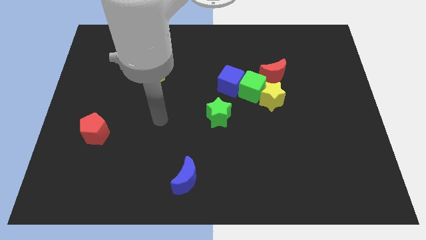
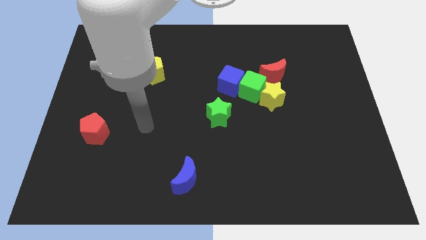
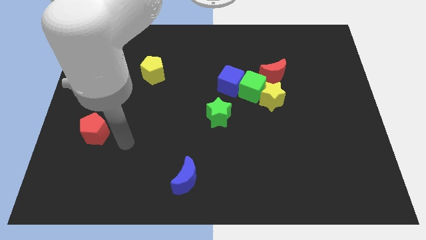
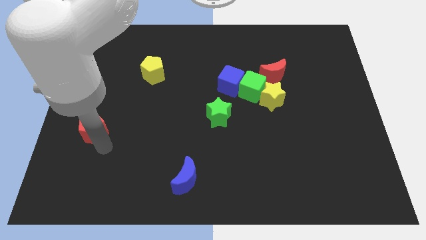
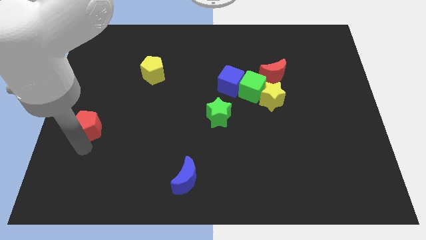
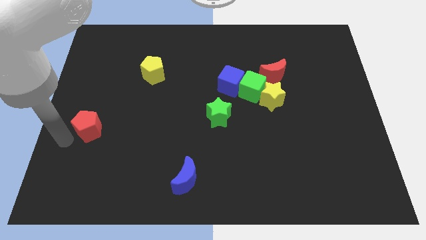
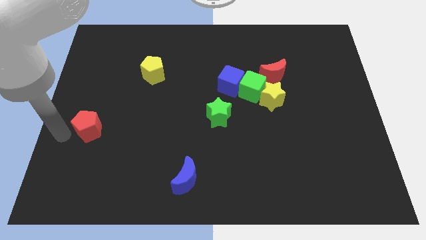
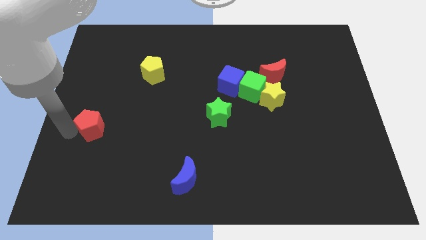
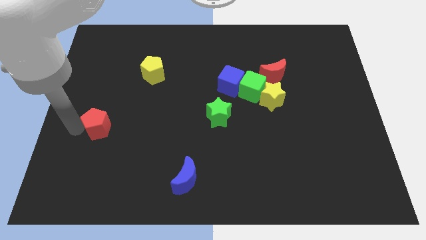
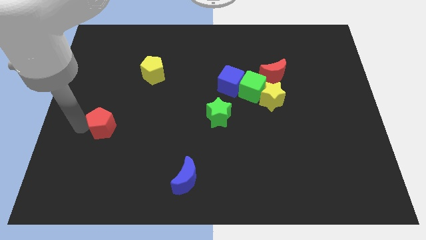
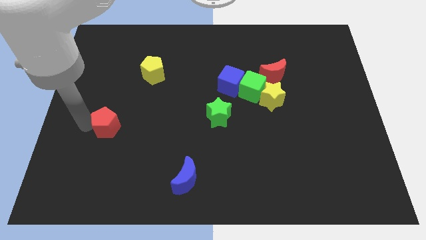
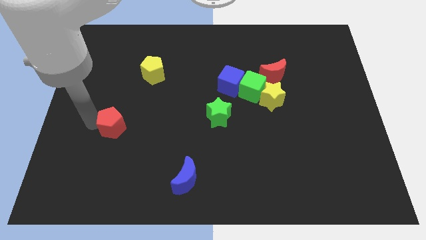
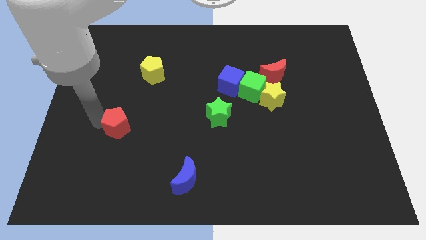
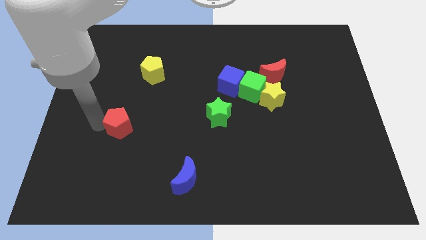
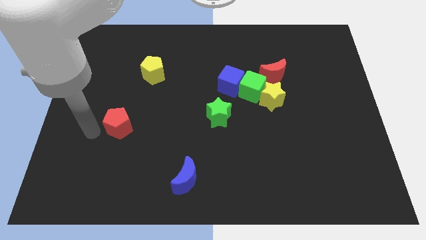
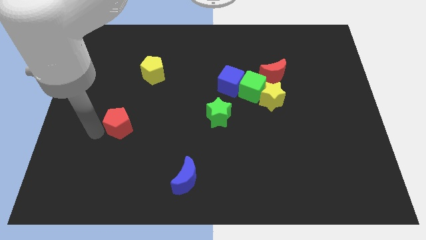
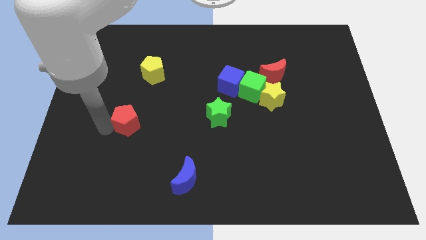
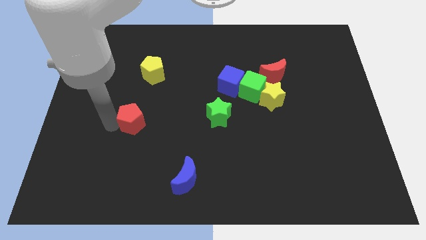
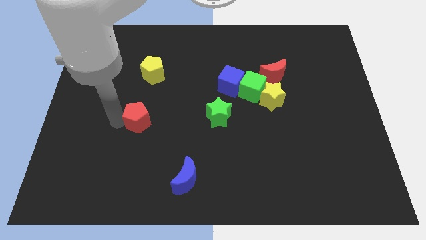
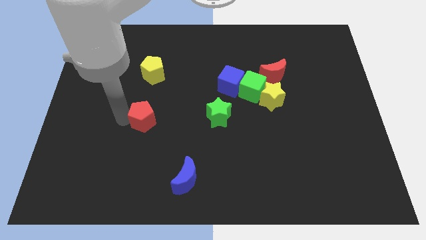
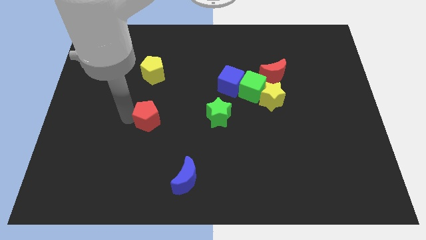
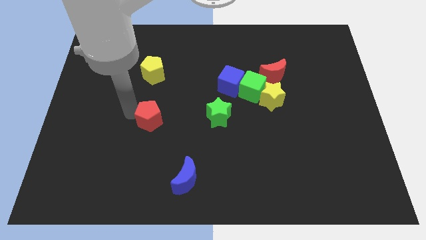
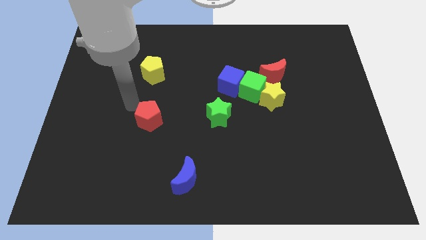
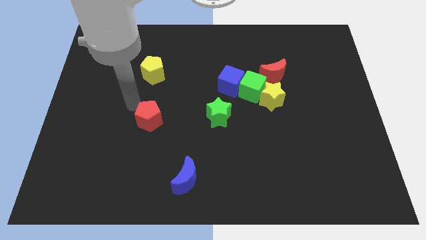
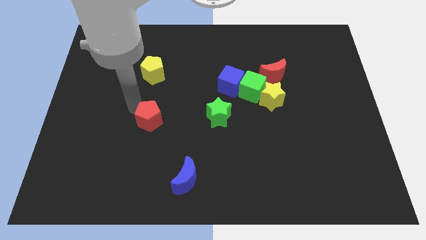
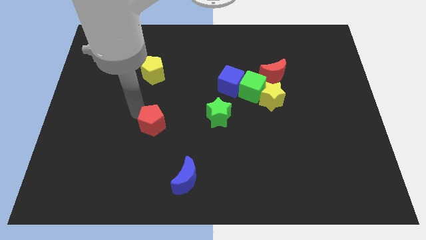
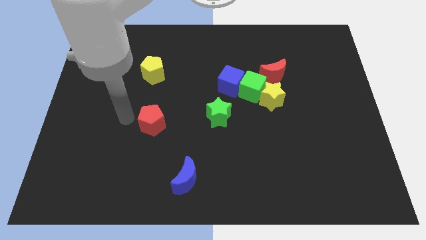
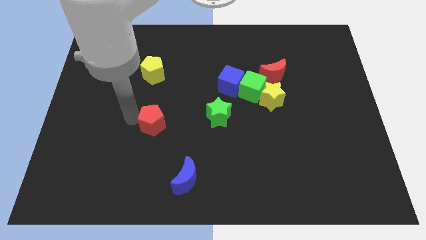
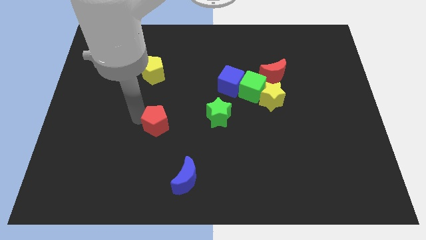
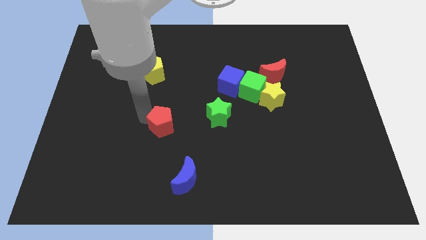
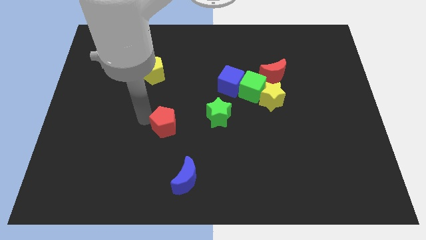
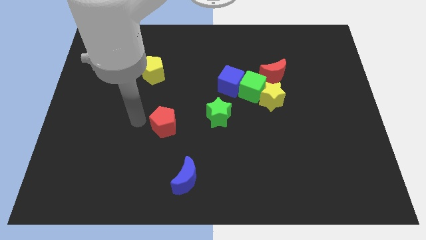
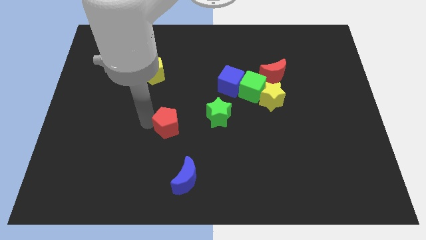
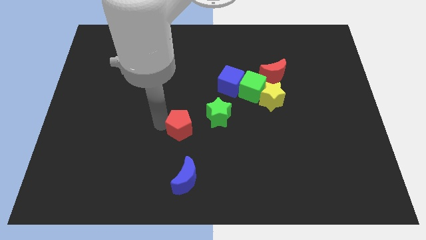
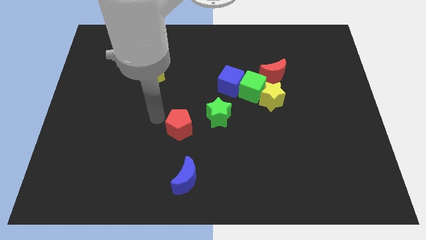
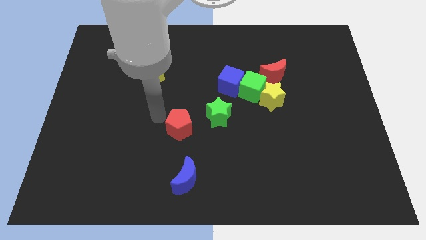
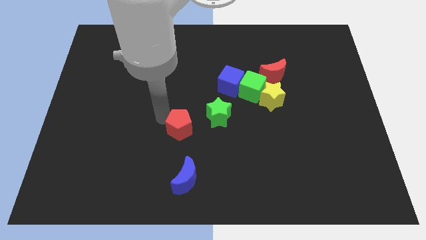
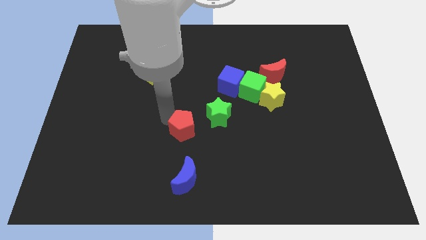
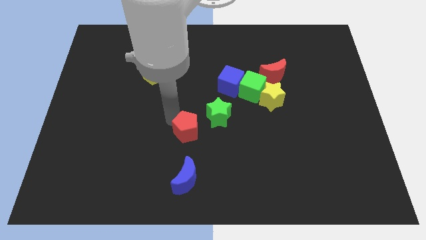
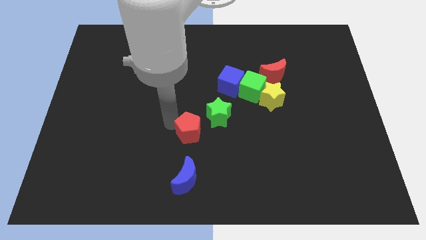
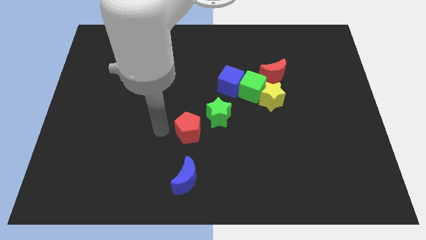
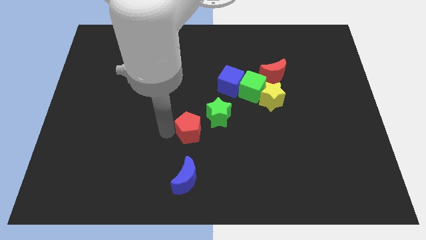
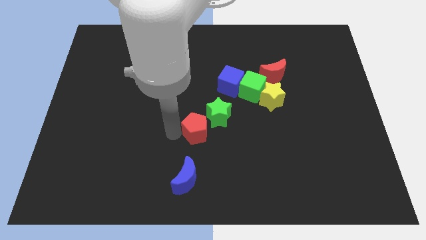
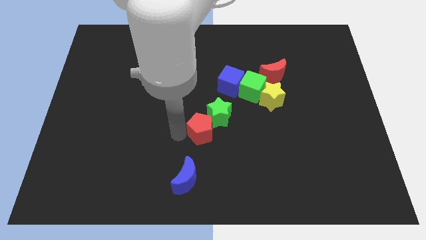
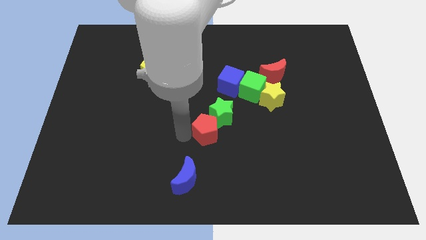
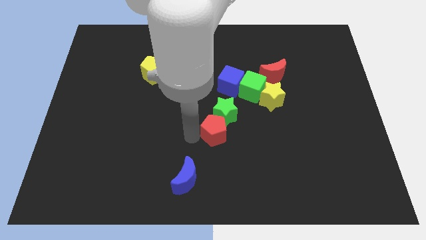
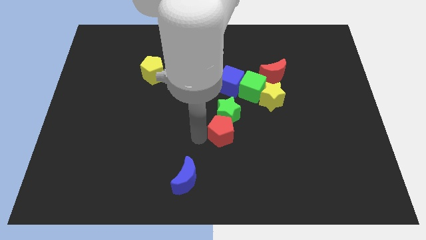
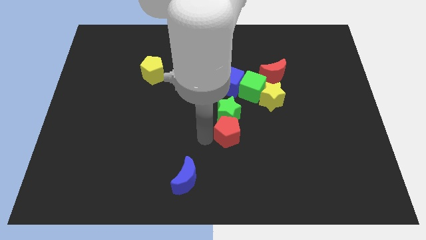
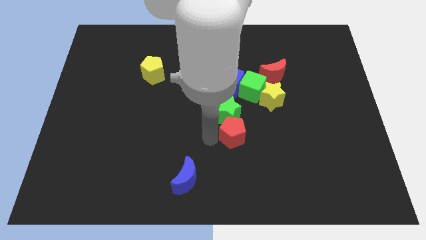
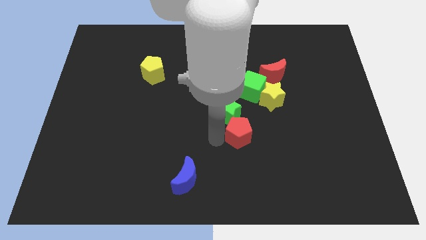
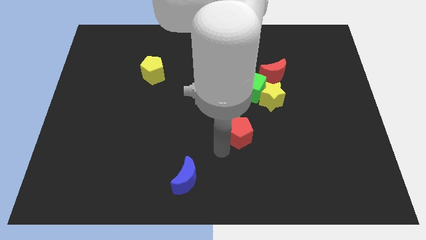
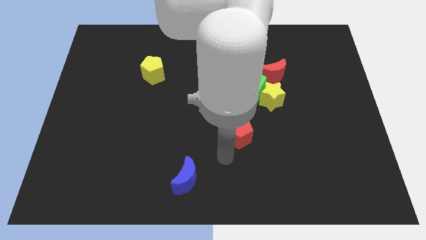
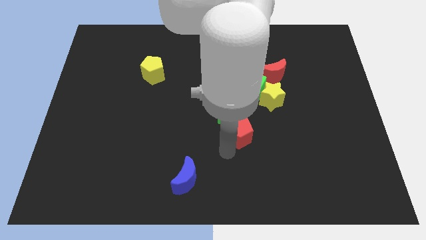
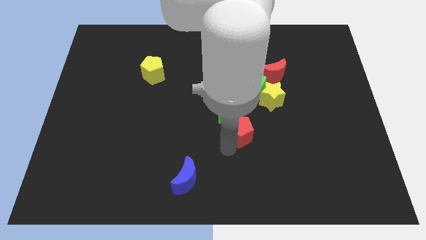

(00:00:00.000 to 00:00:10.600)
put the red pentagon diagonally down and to the left of the yellow star

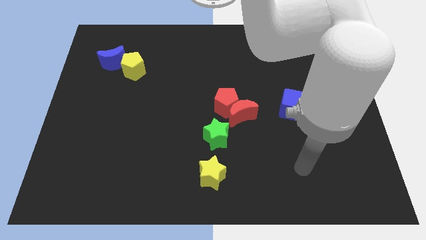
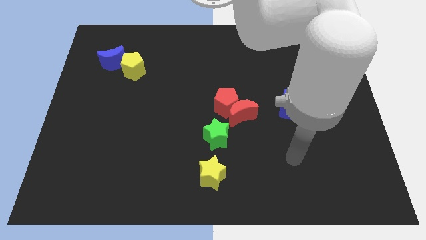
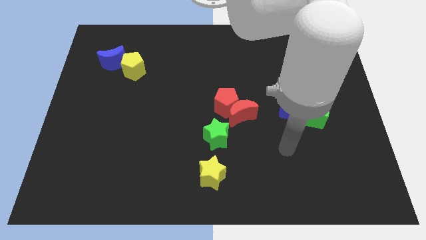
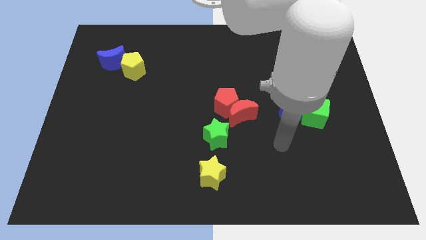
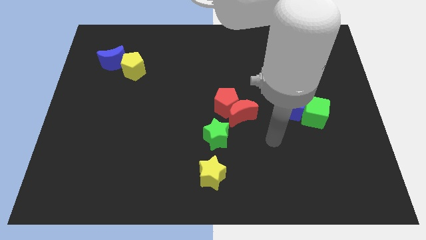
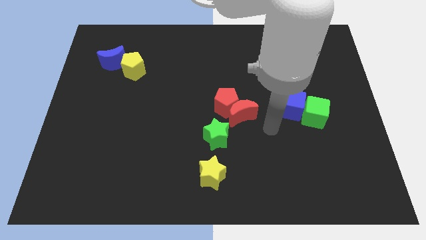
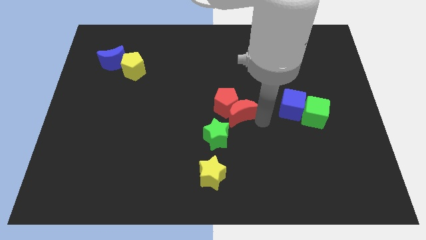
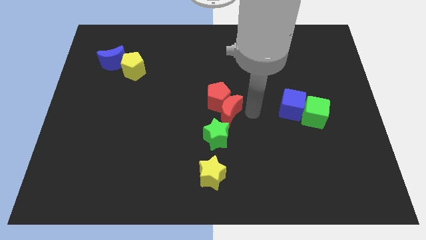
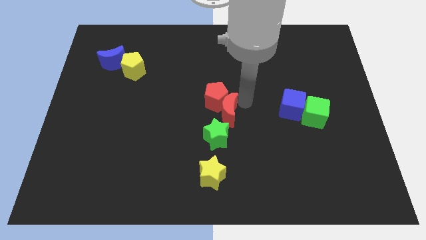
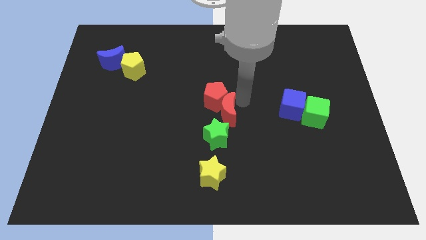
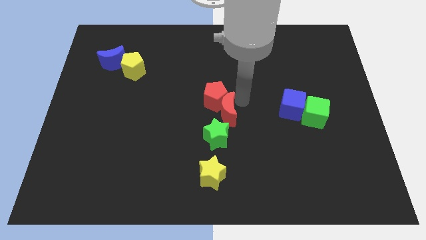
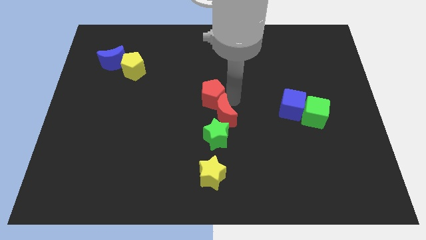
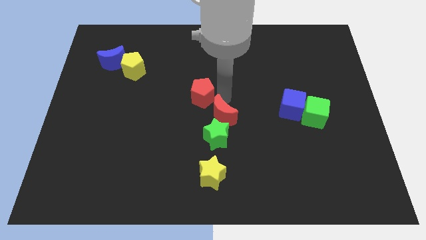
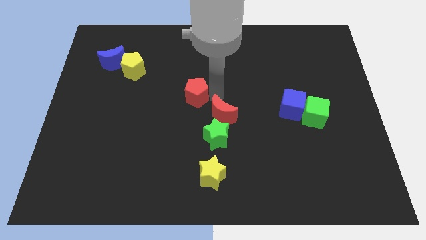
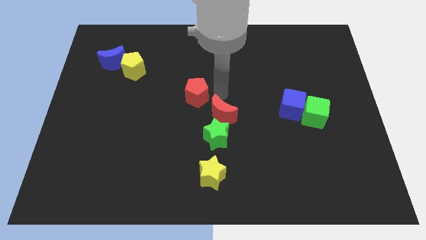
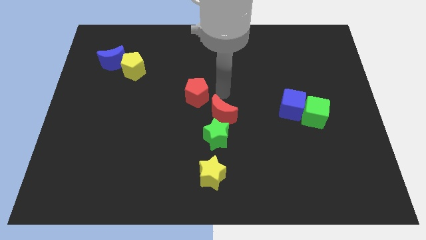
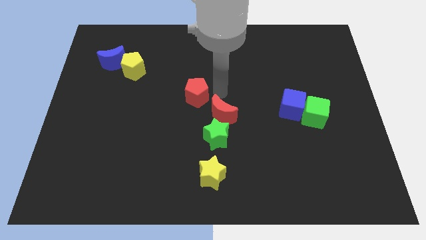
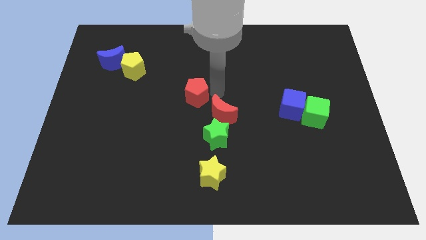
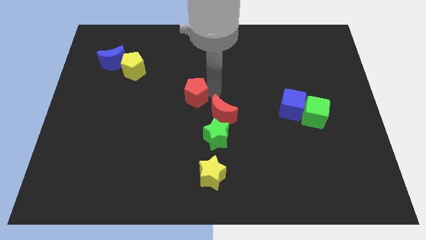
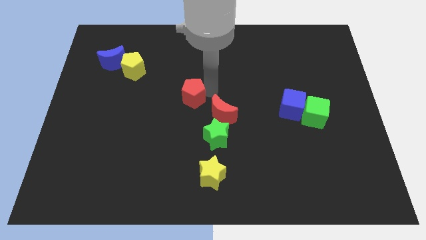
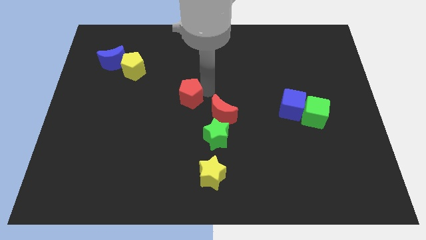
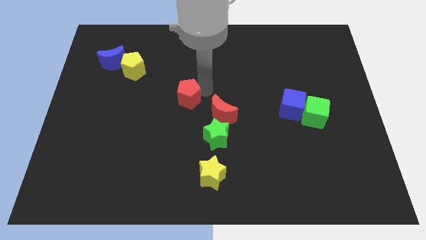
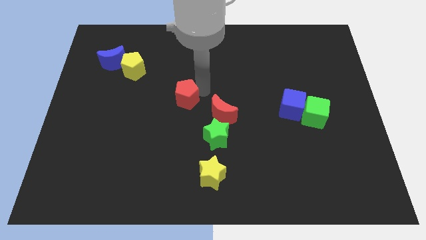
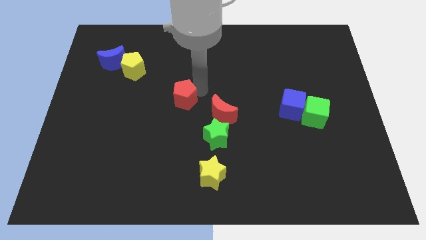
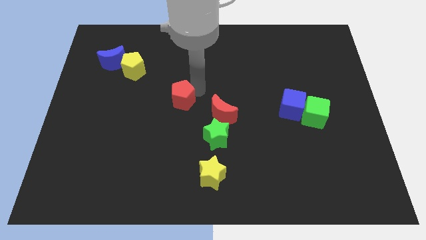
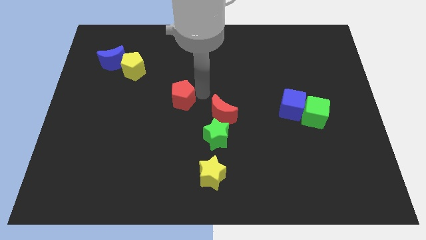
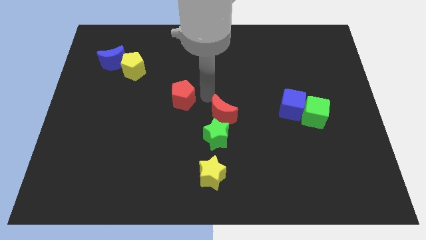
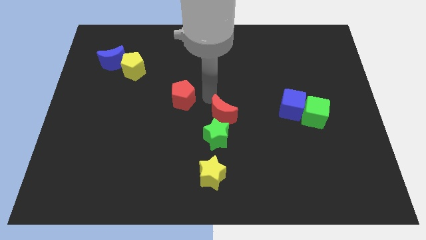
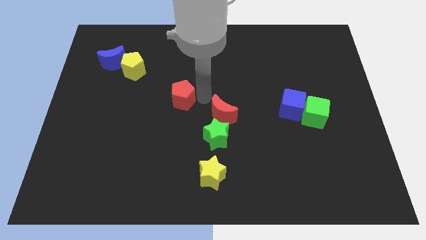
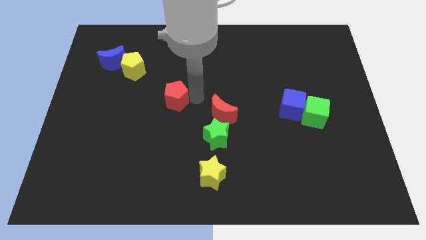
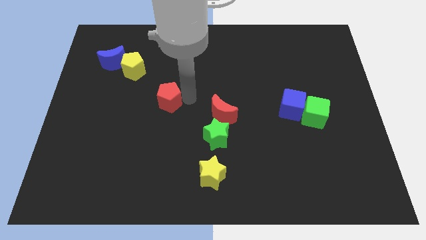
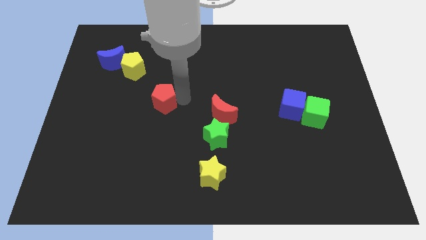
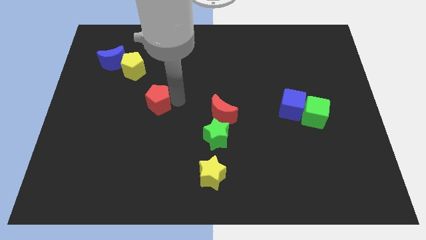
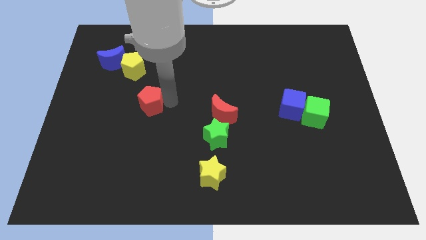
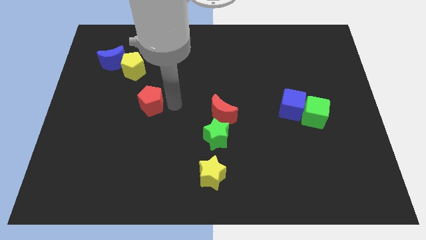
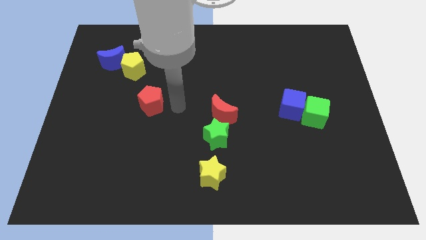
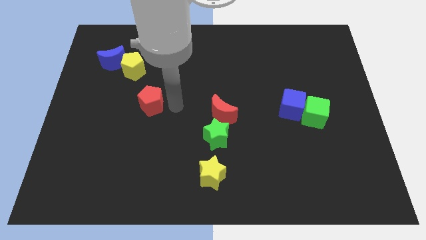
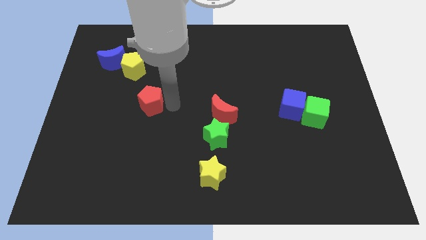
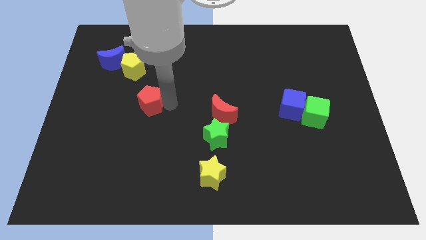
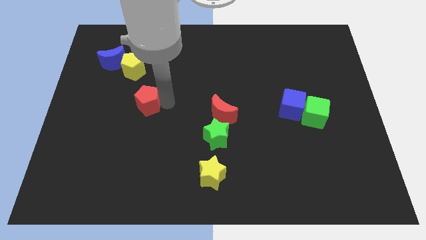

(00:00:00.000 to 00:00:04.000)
move the red pentagon to the bottom side of the yellow pentagon
